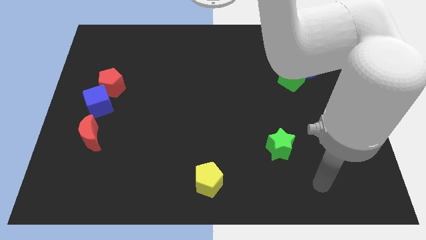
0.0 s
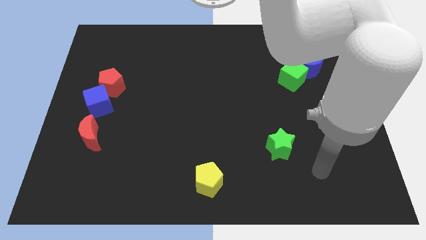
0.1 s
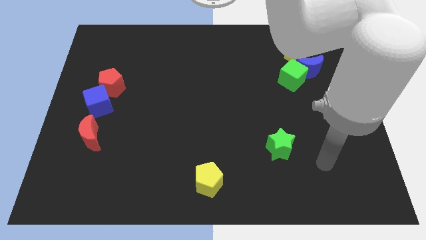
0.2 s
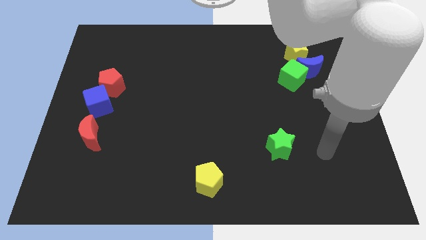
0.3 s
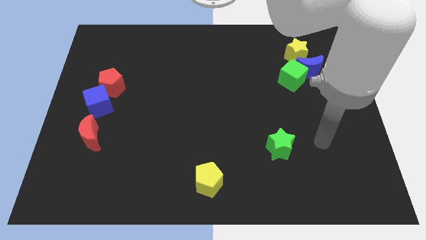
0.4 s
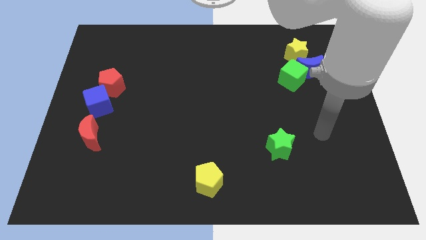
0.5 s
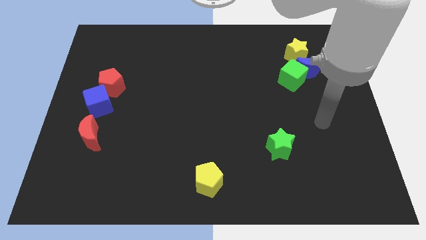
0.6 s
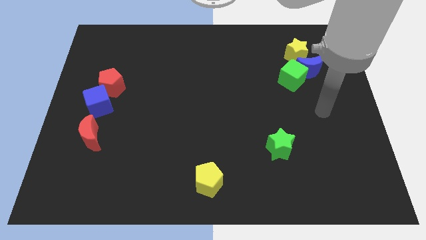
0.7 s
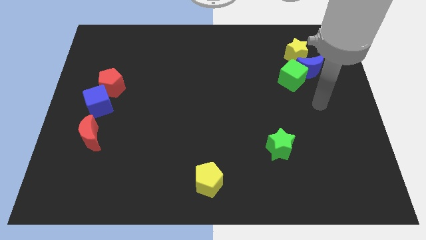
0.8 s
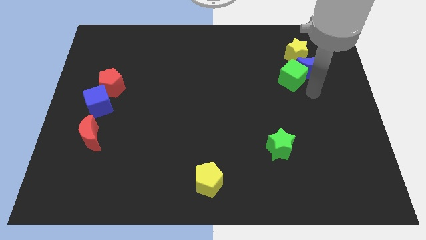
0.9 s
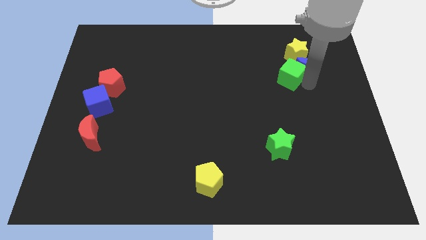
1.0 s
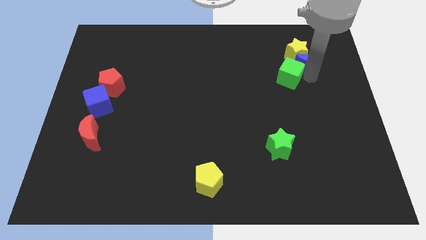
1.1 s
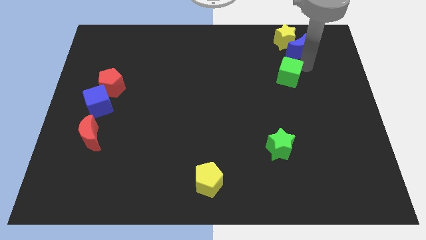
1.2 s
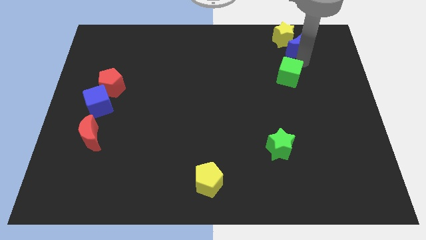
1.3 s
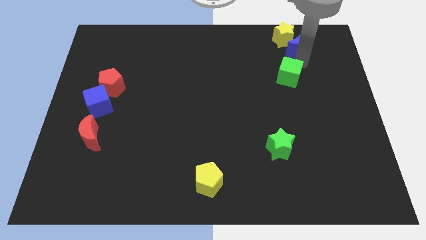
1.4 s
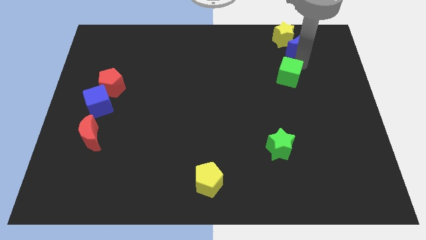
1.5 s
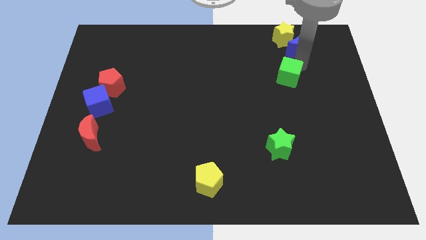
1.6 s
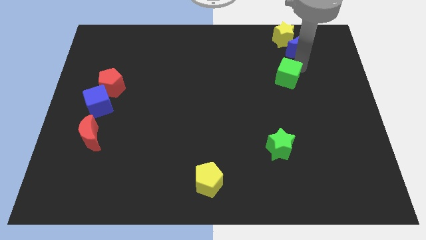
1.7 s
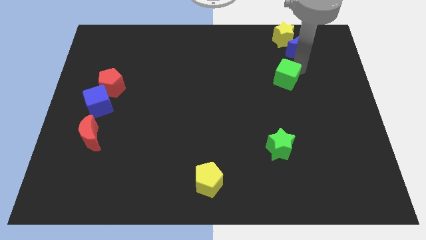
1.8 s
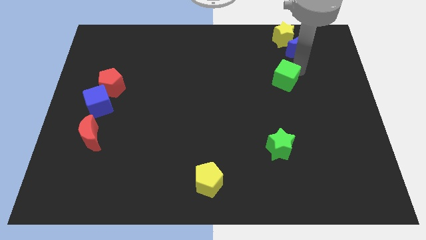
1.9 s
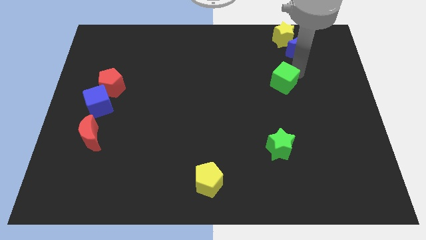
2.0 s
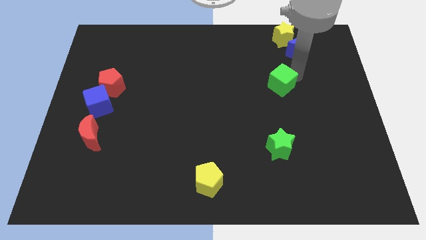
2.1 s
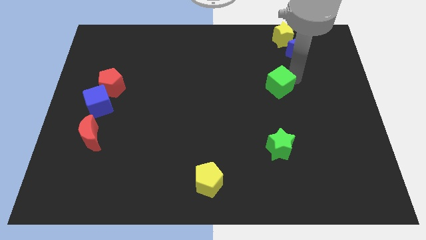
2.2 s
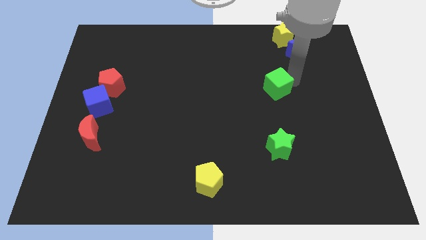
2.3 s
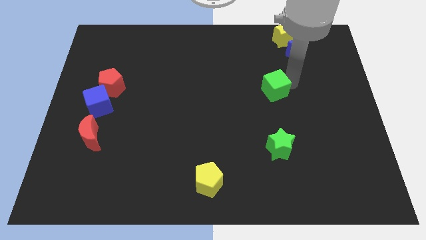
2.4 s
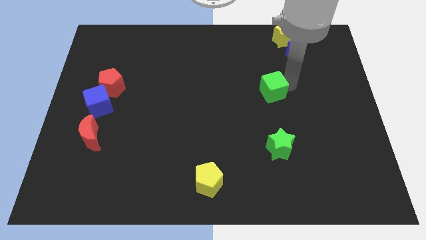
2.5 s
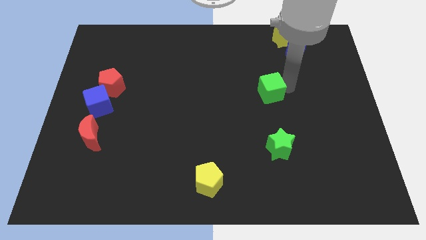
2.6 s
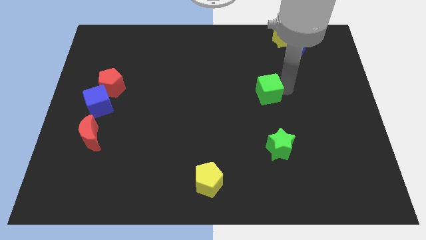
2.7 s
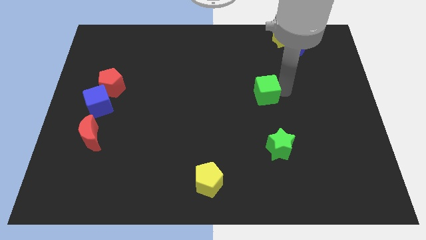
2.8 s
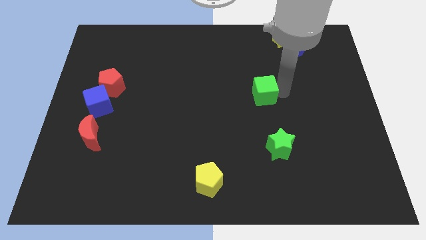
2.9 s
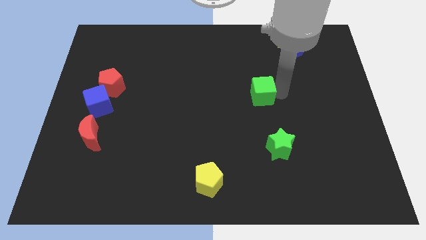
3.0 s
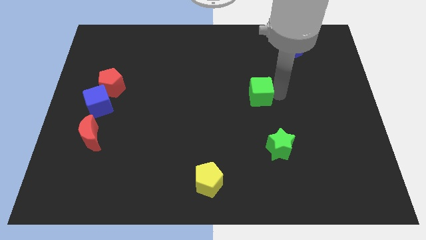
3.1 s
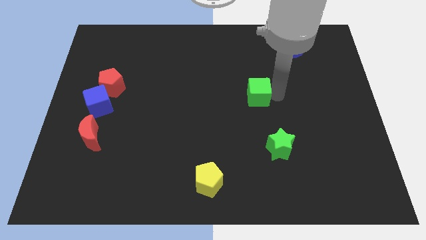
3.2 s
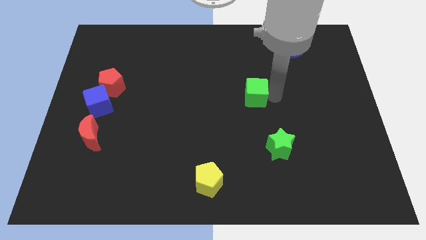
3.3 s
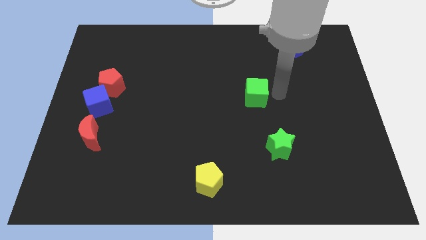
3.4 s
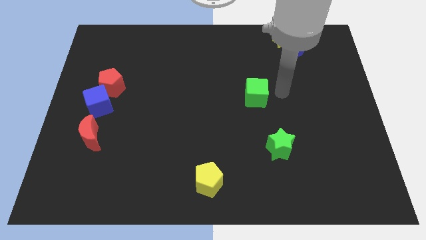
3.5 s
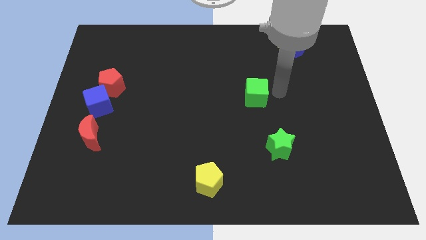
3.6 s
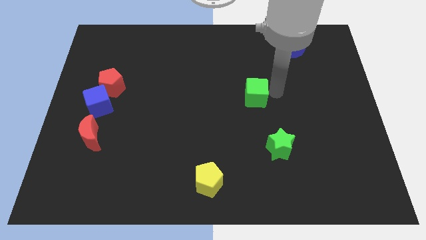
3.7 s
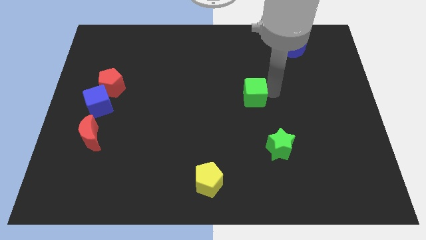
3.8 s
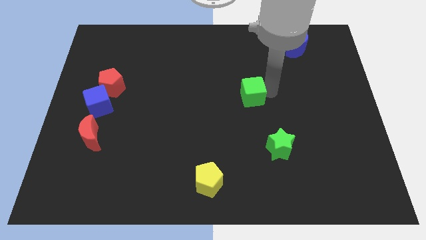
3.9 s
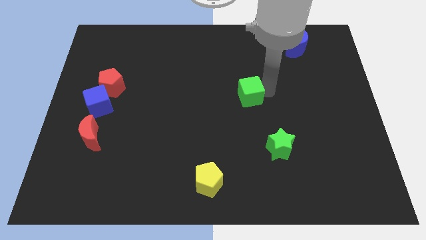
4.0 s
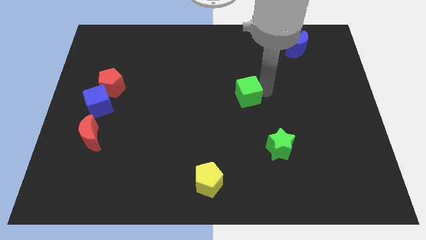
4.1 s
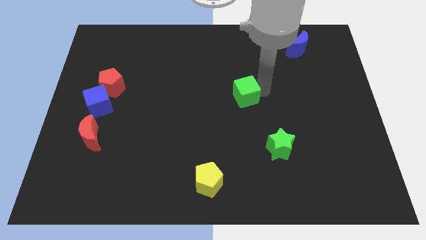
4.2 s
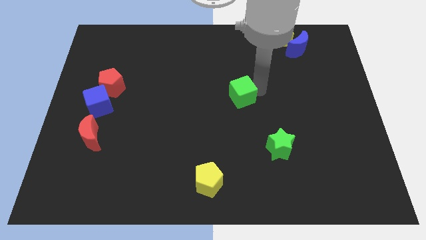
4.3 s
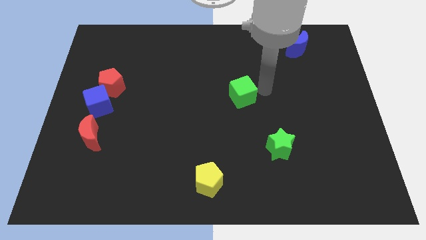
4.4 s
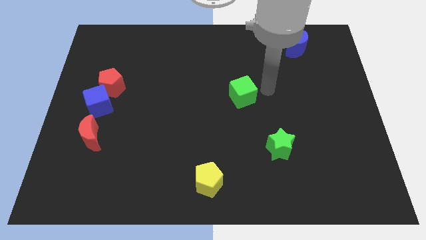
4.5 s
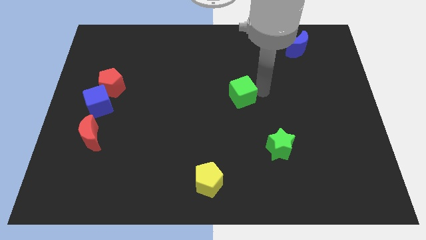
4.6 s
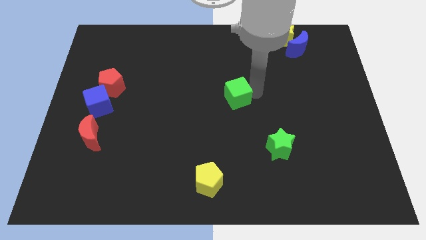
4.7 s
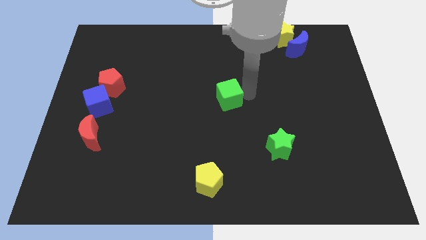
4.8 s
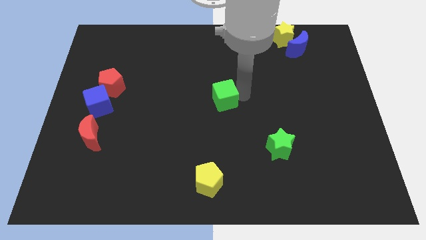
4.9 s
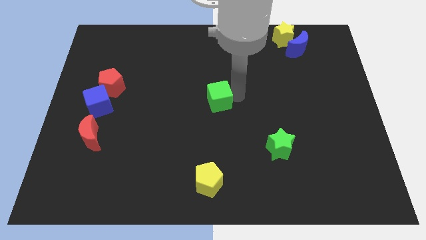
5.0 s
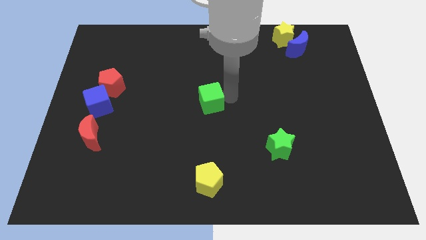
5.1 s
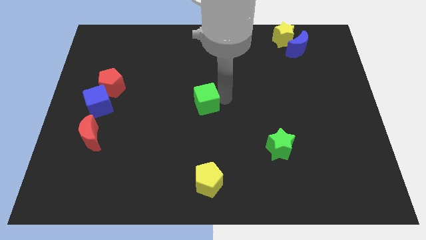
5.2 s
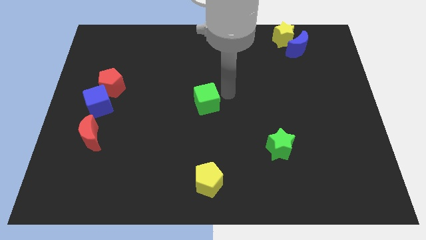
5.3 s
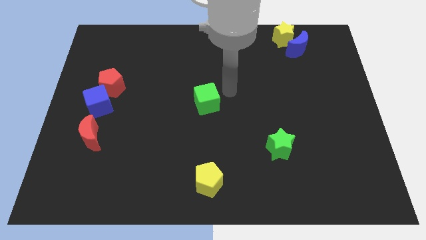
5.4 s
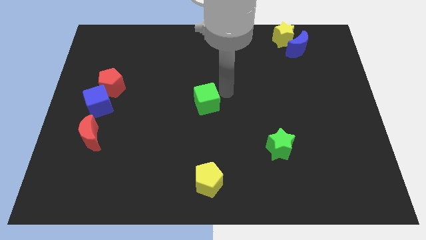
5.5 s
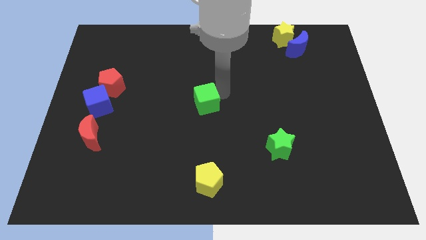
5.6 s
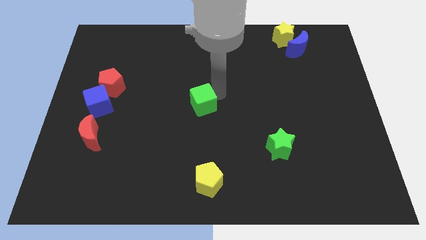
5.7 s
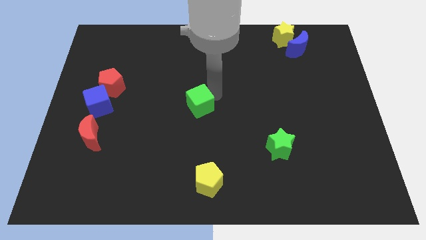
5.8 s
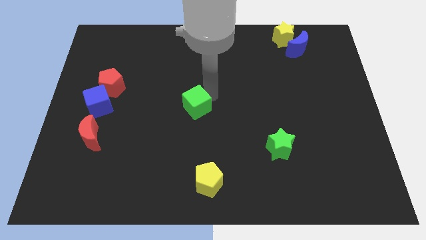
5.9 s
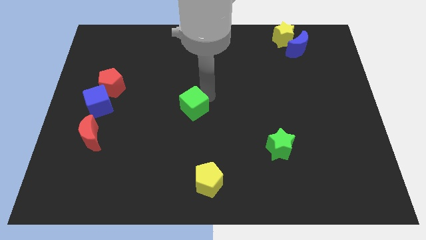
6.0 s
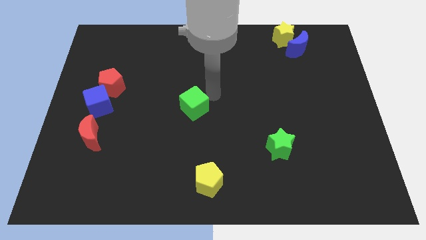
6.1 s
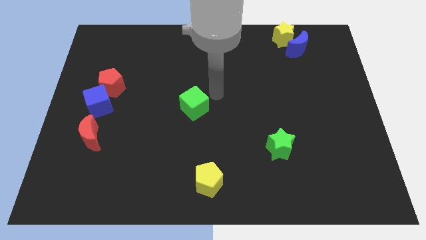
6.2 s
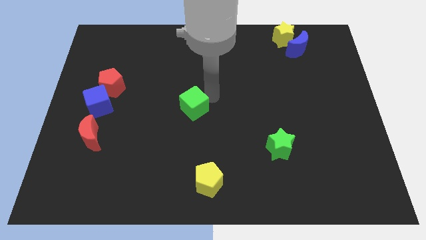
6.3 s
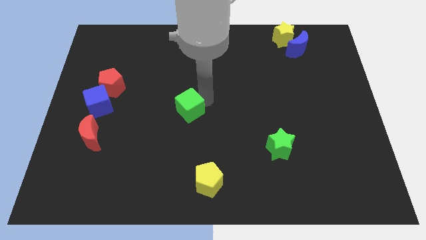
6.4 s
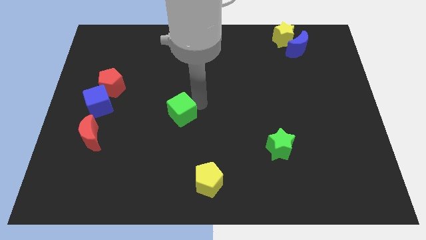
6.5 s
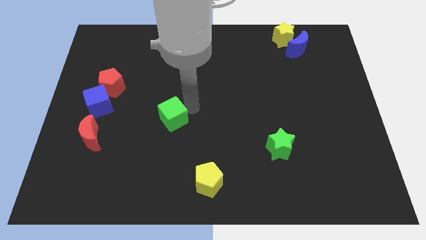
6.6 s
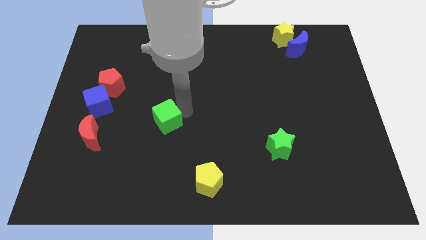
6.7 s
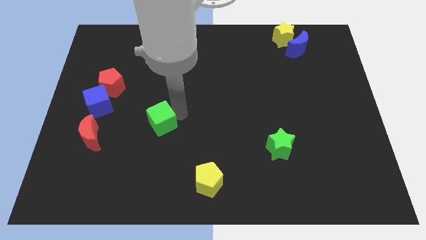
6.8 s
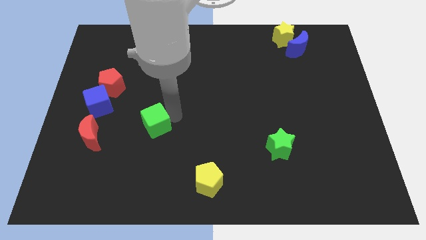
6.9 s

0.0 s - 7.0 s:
slide the green cube to the right side of the red moon

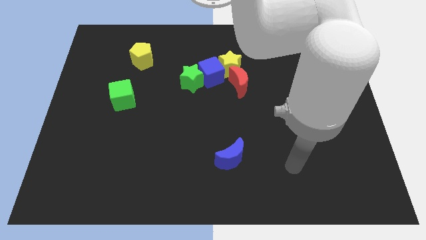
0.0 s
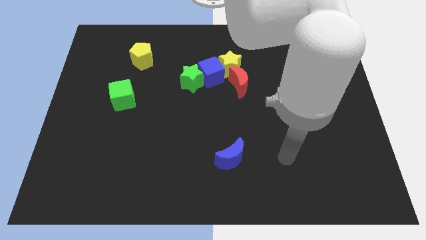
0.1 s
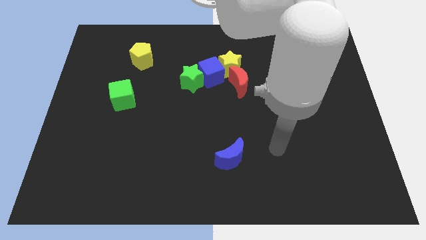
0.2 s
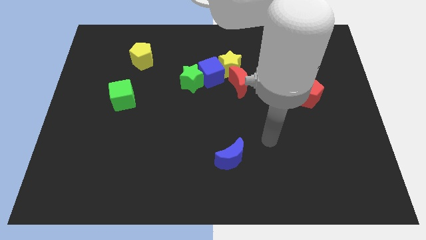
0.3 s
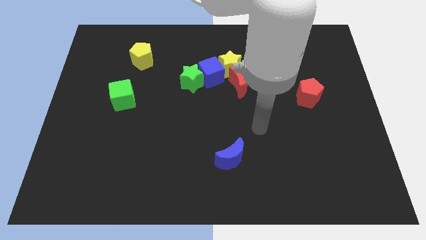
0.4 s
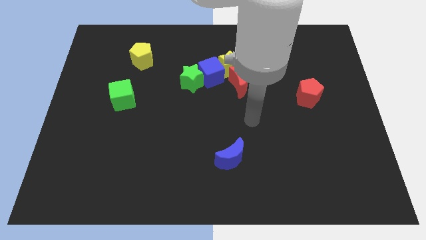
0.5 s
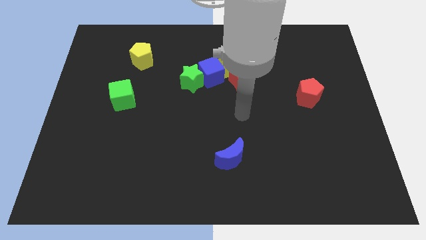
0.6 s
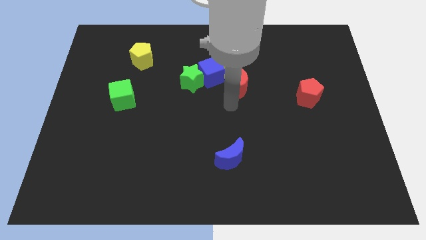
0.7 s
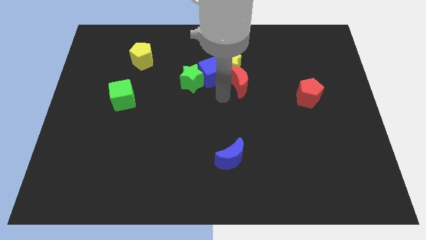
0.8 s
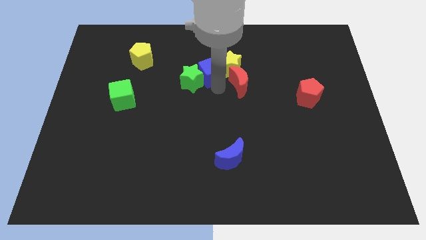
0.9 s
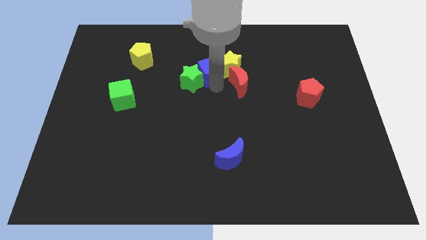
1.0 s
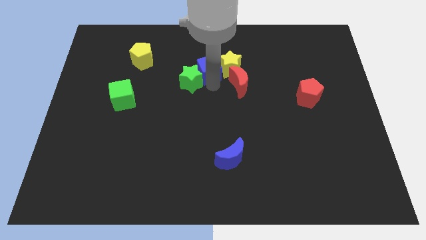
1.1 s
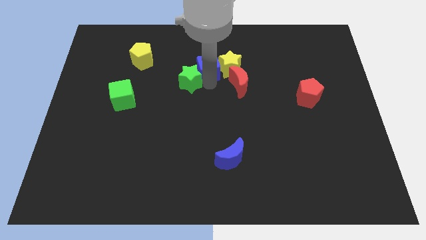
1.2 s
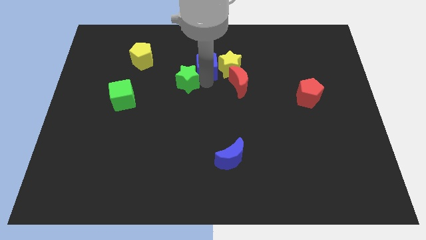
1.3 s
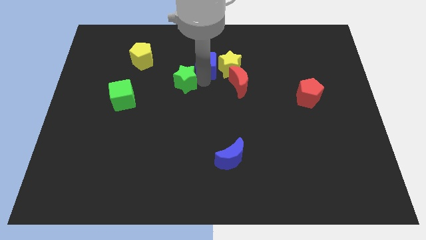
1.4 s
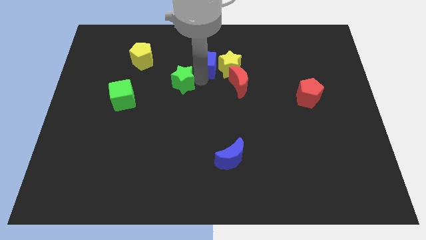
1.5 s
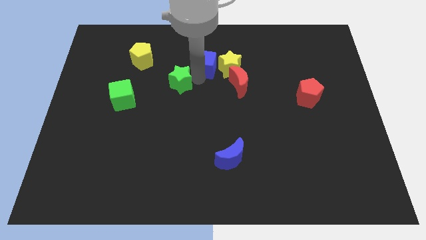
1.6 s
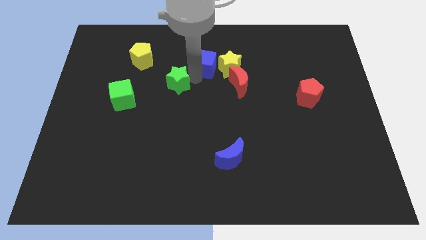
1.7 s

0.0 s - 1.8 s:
put the green star diagonally down and to the right of the yellow pentagon
